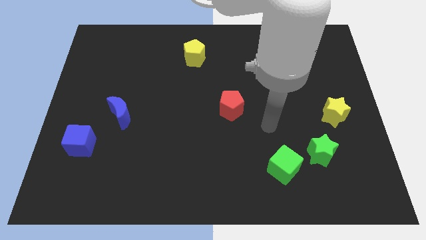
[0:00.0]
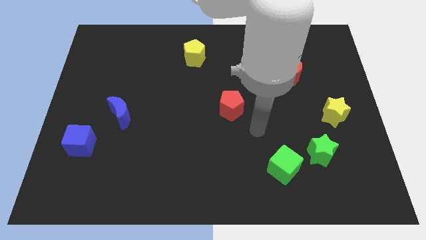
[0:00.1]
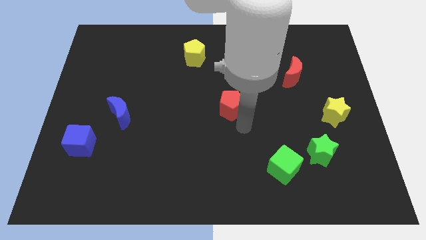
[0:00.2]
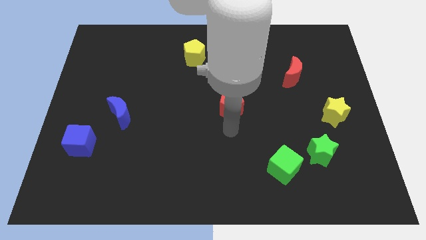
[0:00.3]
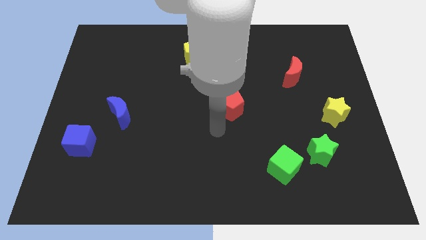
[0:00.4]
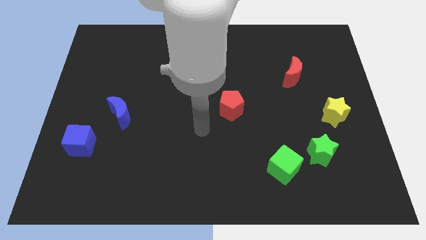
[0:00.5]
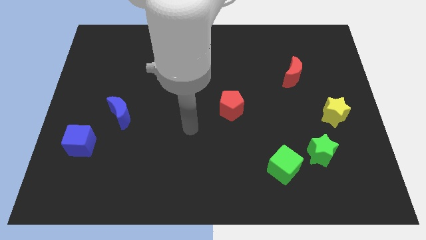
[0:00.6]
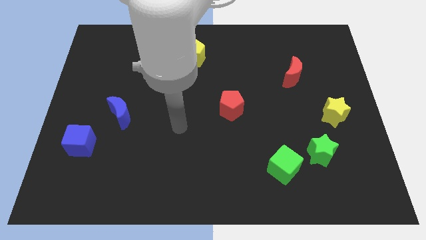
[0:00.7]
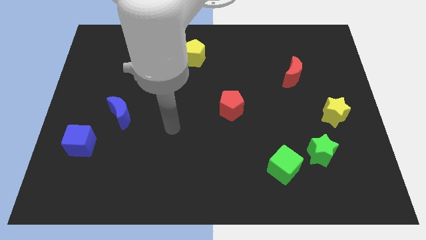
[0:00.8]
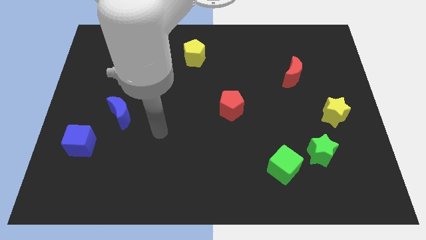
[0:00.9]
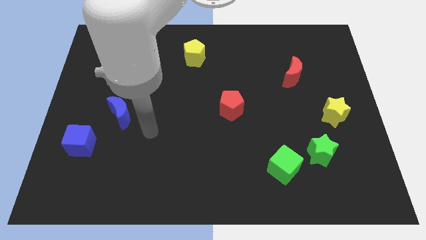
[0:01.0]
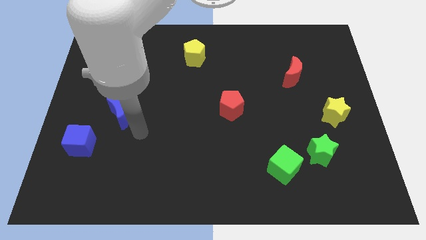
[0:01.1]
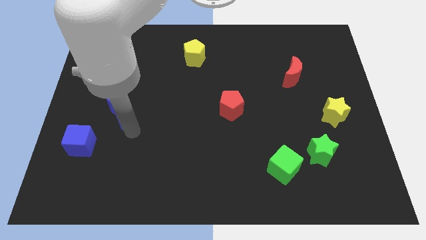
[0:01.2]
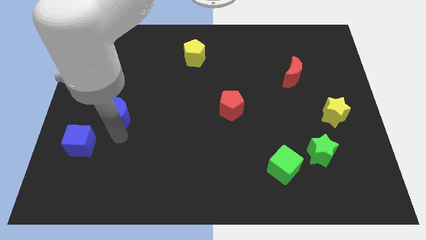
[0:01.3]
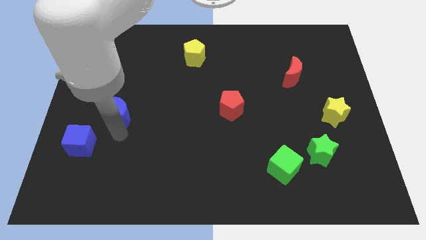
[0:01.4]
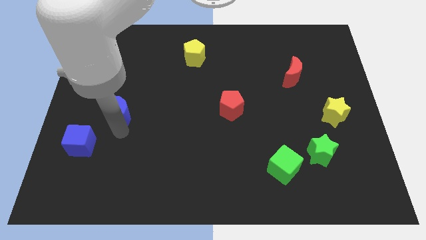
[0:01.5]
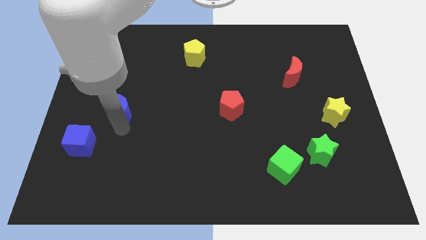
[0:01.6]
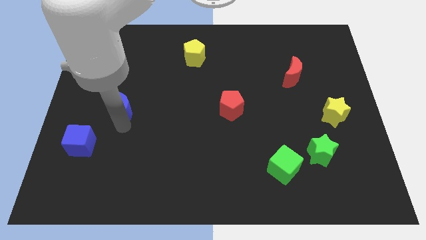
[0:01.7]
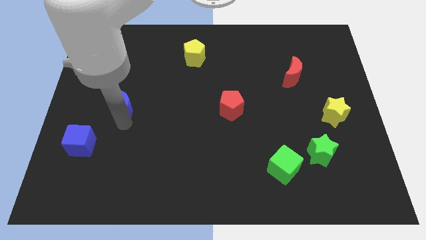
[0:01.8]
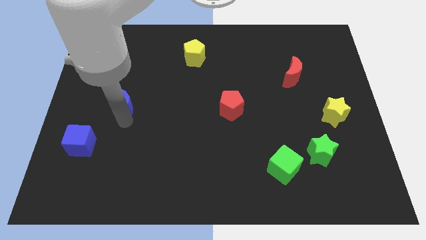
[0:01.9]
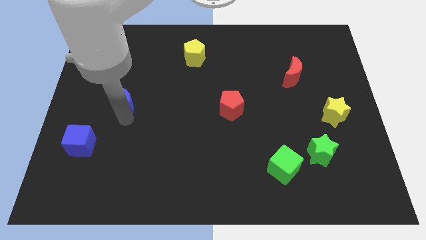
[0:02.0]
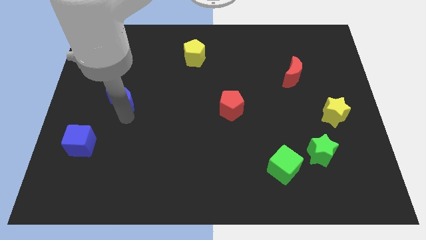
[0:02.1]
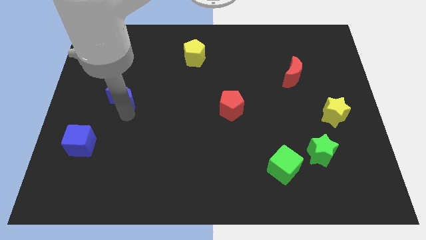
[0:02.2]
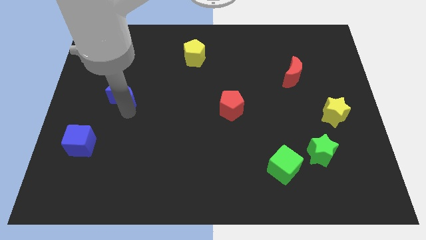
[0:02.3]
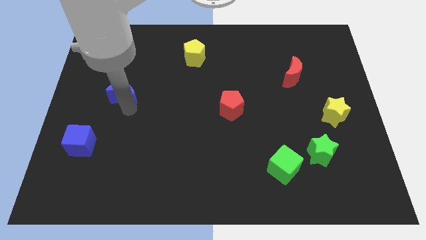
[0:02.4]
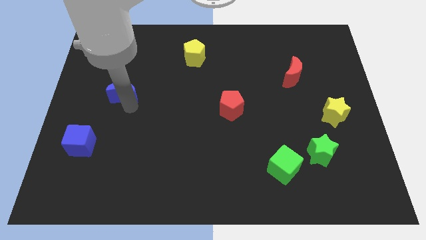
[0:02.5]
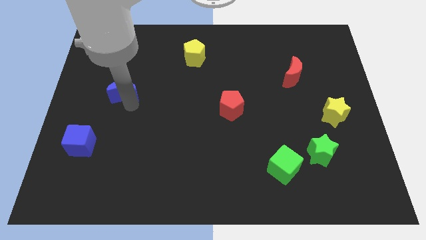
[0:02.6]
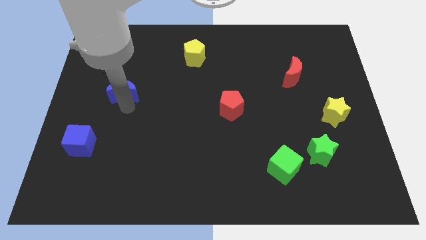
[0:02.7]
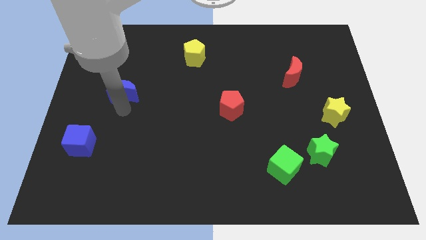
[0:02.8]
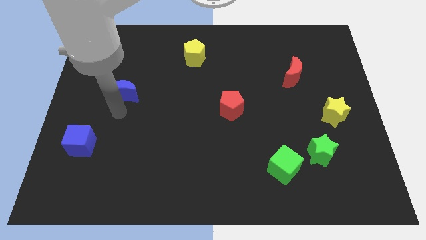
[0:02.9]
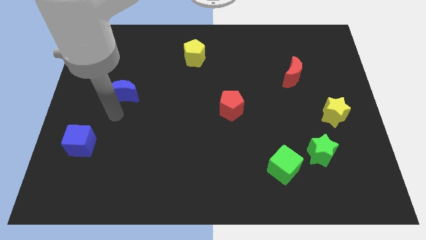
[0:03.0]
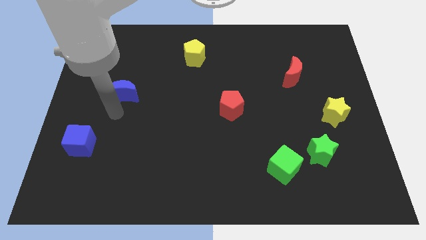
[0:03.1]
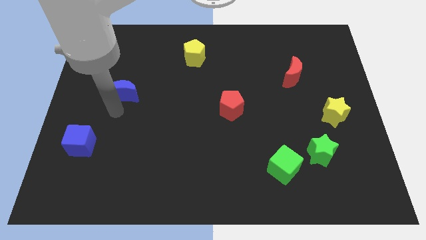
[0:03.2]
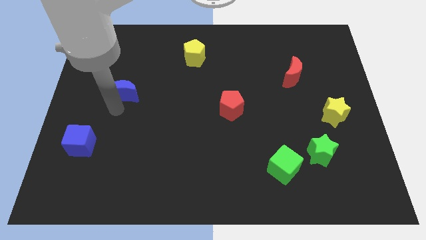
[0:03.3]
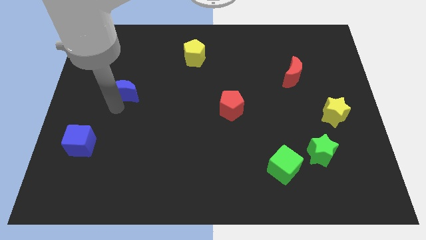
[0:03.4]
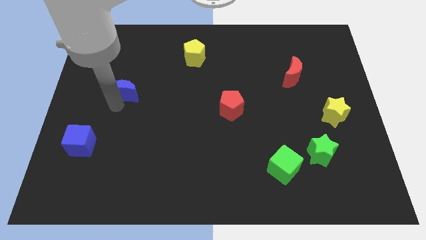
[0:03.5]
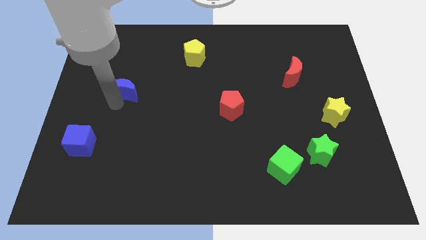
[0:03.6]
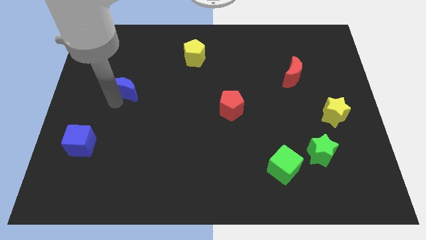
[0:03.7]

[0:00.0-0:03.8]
slightly slide the blue moon upwards

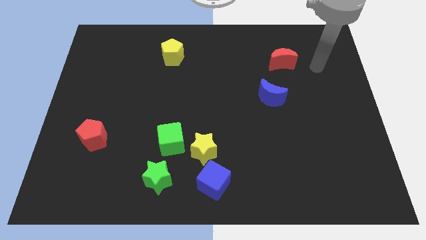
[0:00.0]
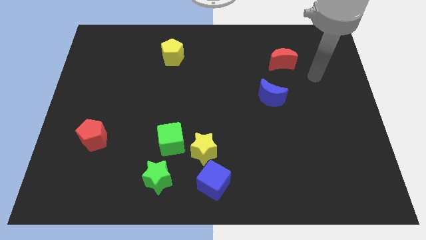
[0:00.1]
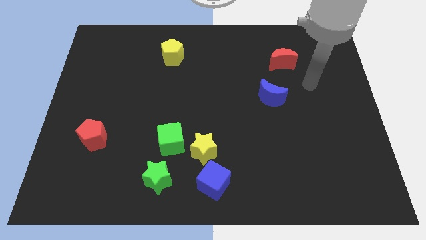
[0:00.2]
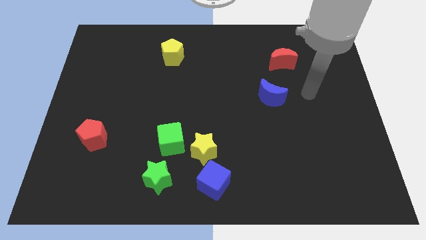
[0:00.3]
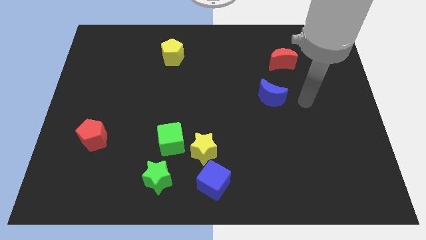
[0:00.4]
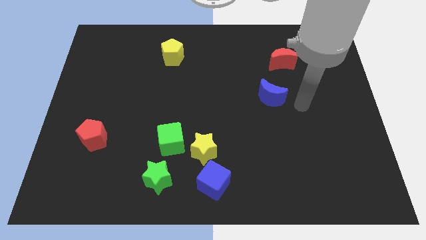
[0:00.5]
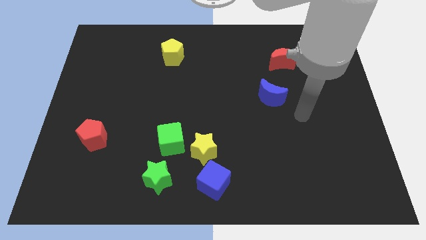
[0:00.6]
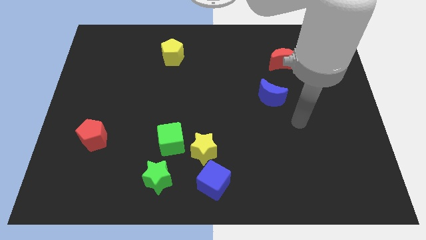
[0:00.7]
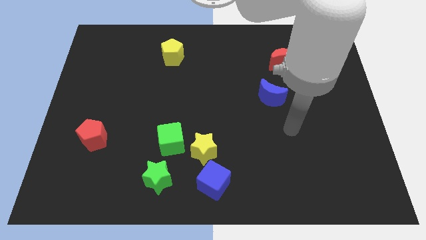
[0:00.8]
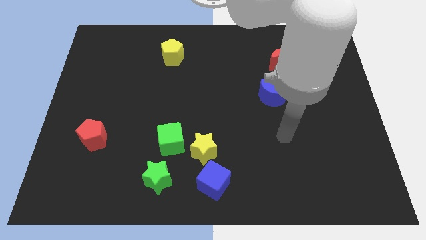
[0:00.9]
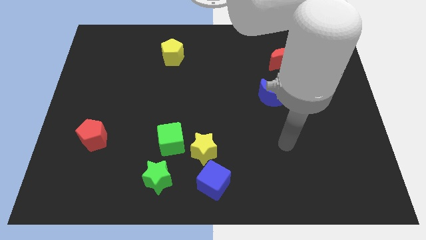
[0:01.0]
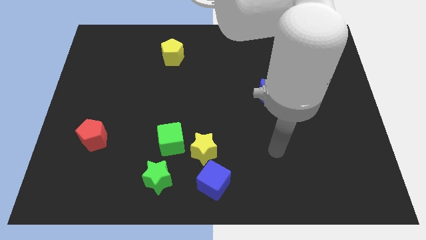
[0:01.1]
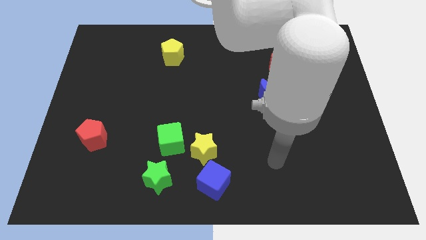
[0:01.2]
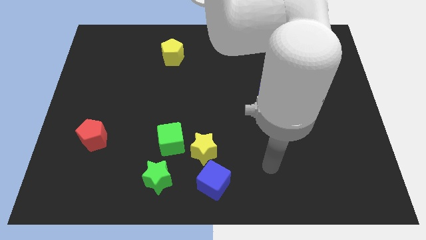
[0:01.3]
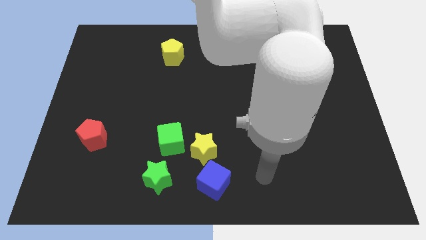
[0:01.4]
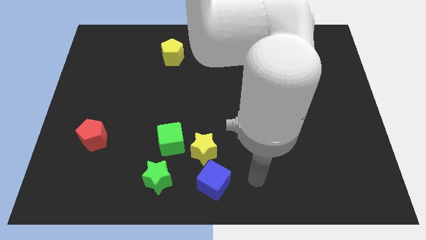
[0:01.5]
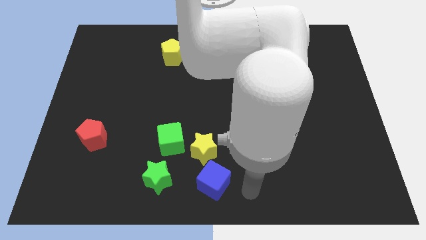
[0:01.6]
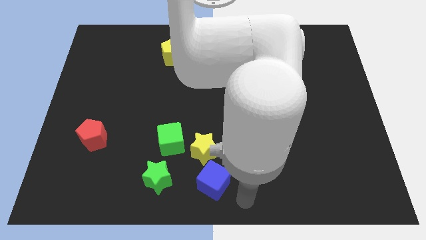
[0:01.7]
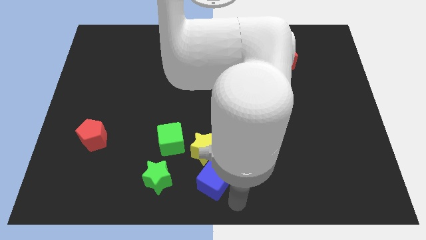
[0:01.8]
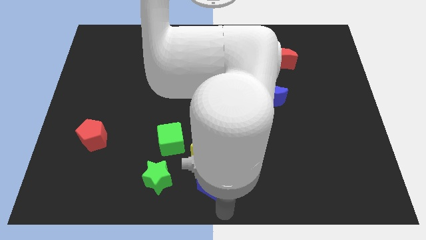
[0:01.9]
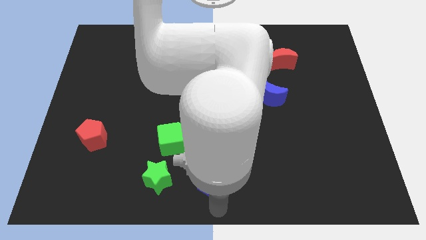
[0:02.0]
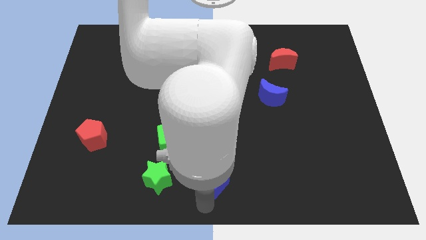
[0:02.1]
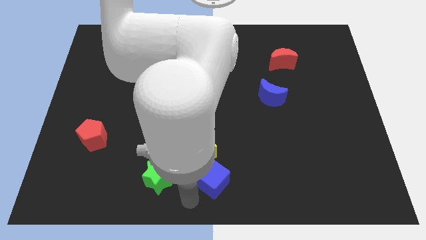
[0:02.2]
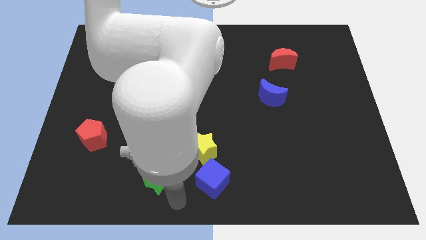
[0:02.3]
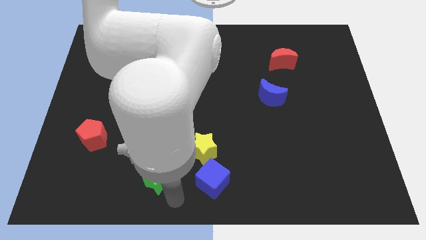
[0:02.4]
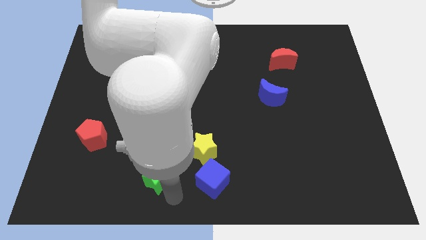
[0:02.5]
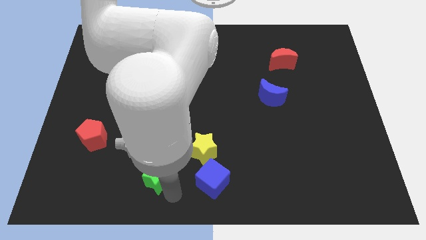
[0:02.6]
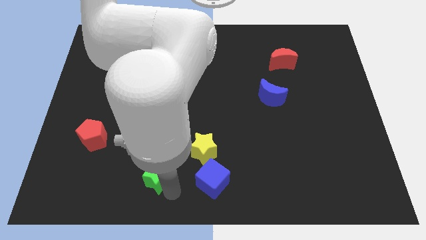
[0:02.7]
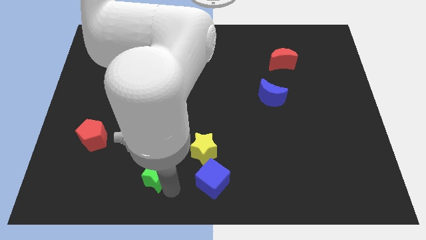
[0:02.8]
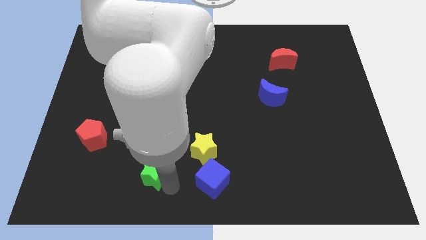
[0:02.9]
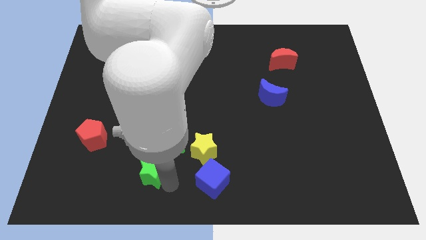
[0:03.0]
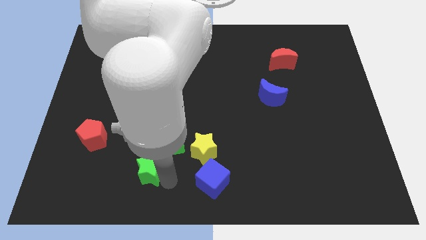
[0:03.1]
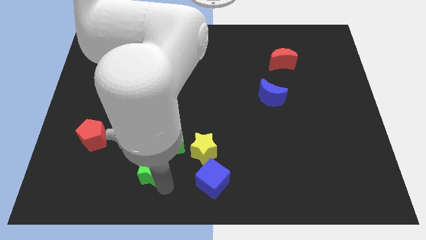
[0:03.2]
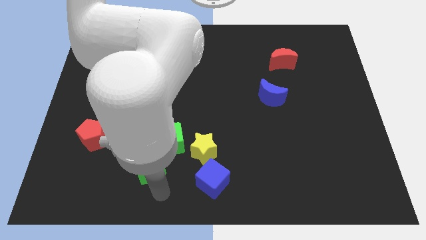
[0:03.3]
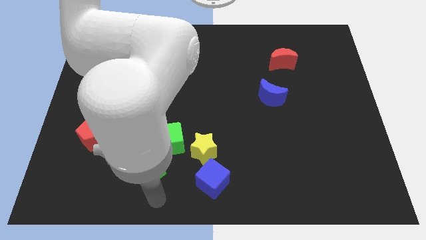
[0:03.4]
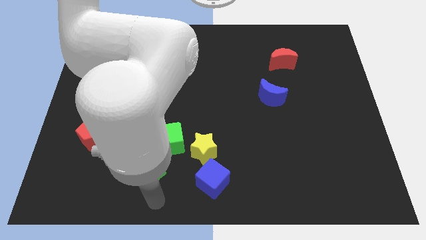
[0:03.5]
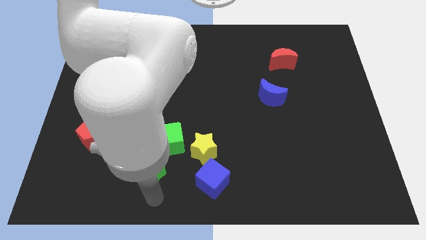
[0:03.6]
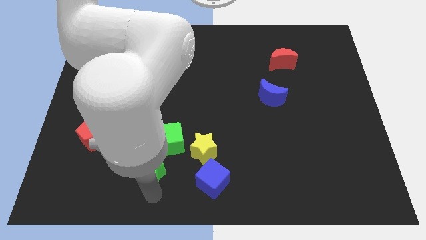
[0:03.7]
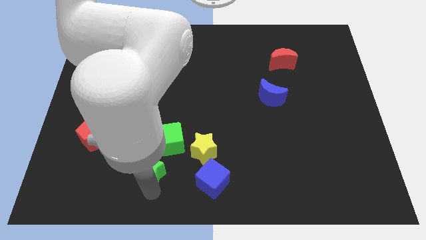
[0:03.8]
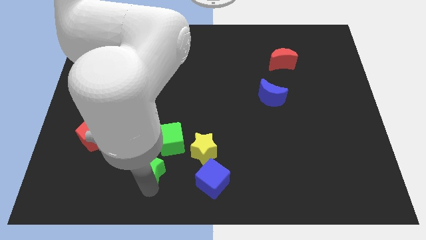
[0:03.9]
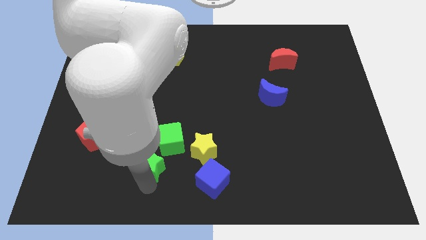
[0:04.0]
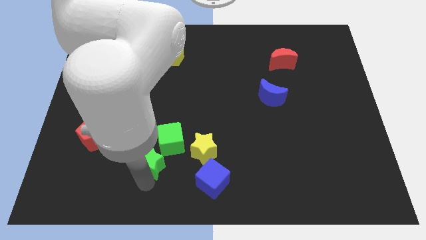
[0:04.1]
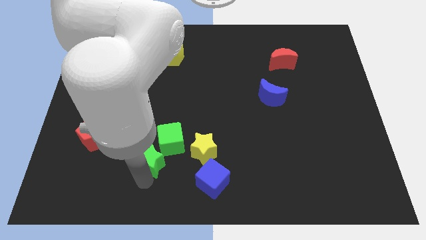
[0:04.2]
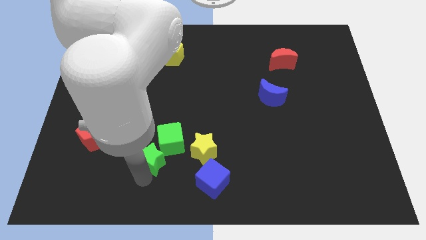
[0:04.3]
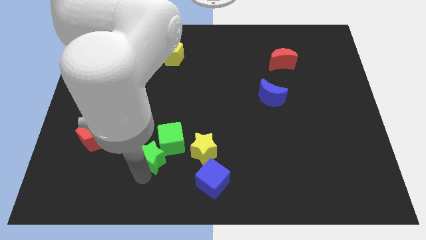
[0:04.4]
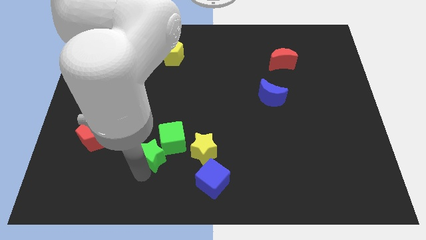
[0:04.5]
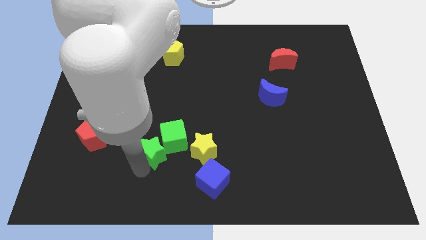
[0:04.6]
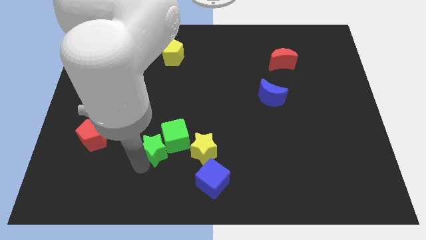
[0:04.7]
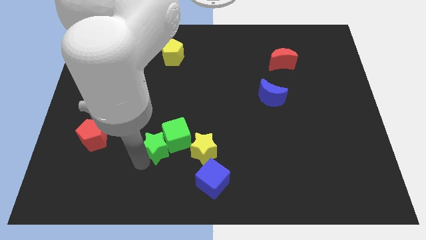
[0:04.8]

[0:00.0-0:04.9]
slide the green star a little bit upwards
